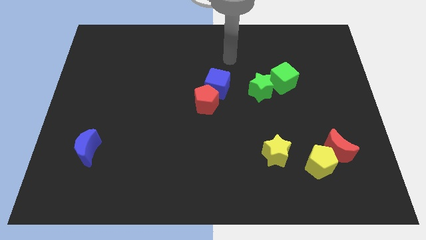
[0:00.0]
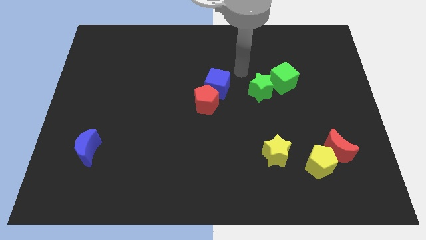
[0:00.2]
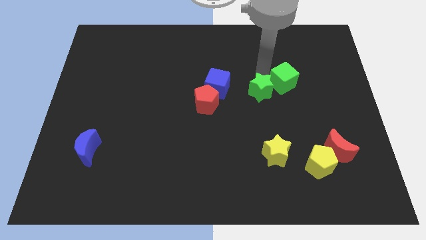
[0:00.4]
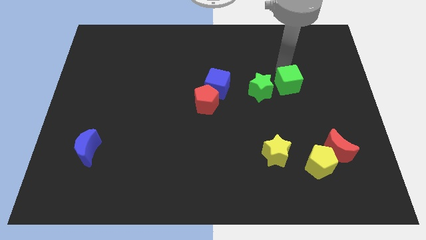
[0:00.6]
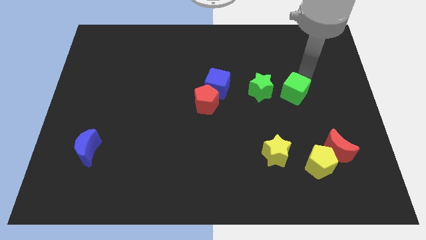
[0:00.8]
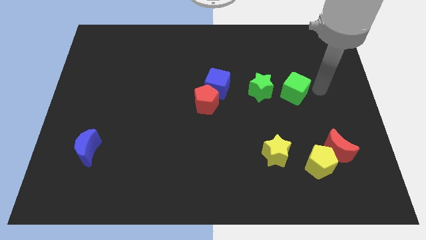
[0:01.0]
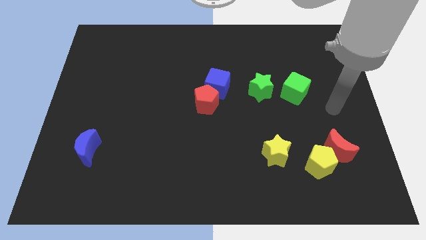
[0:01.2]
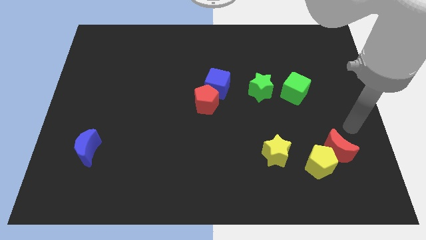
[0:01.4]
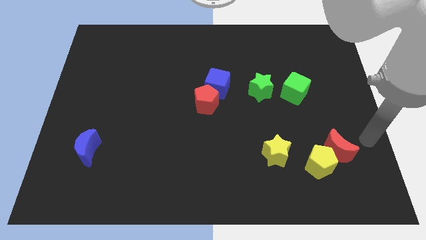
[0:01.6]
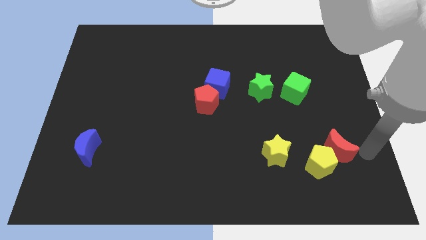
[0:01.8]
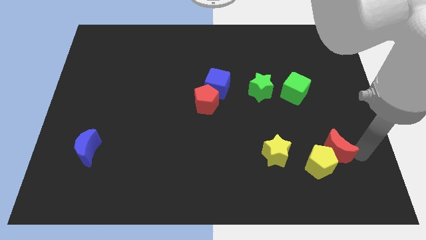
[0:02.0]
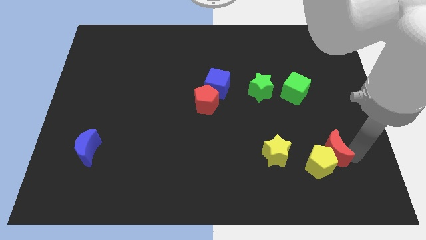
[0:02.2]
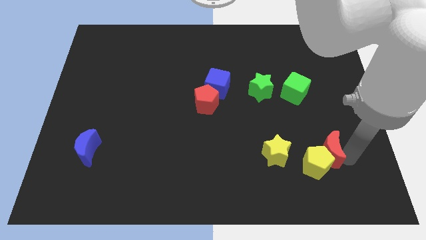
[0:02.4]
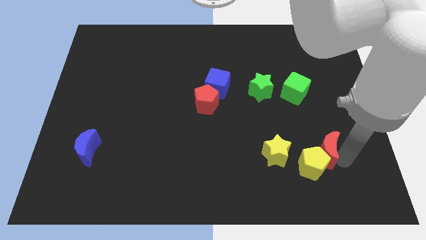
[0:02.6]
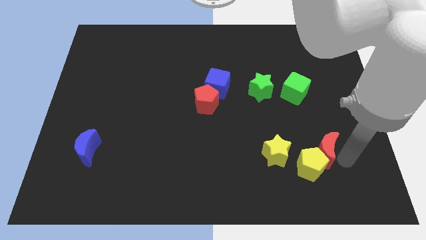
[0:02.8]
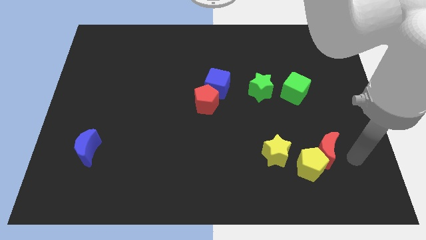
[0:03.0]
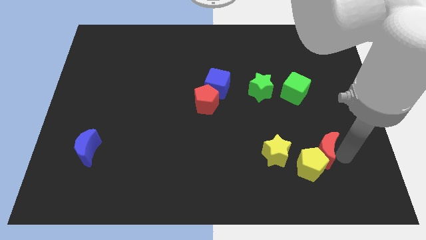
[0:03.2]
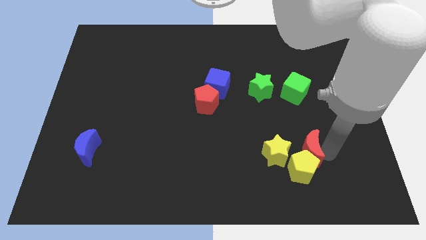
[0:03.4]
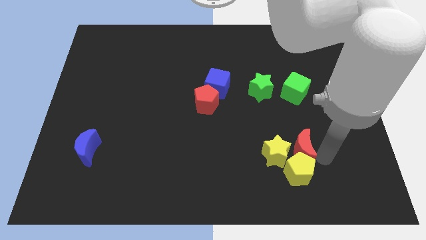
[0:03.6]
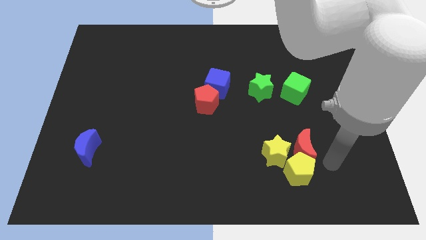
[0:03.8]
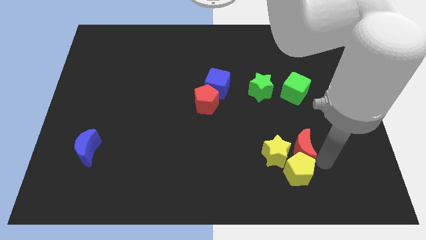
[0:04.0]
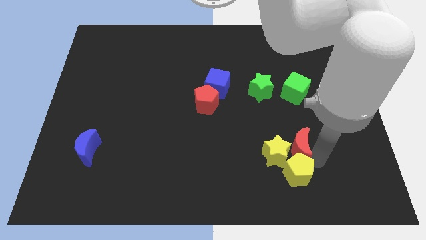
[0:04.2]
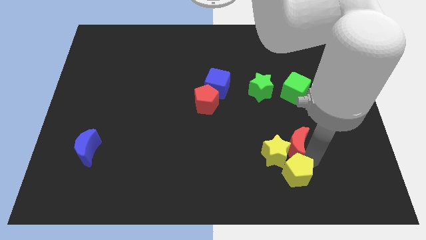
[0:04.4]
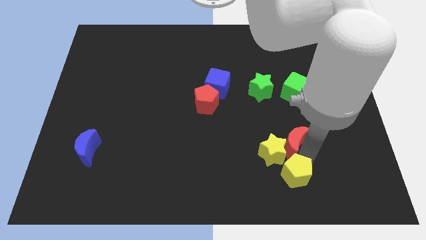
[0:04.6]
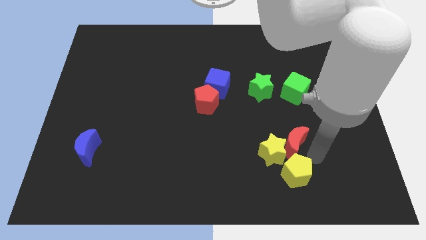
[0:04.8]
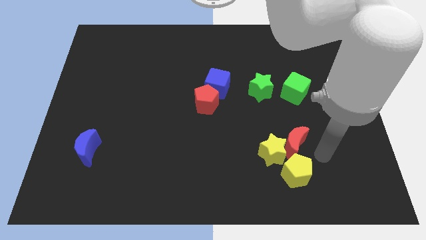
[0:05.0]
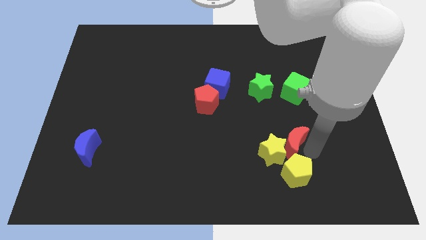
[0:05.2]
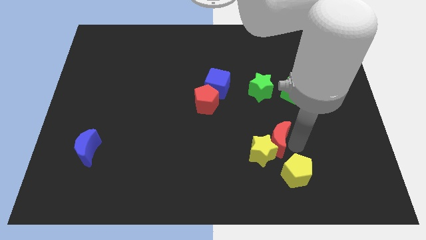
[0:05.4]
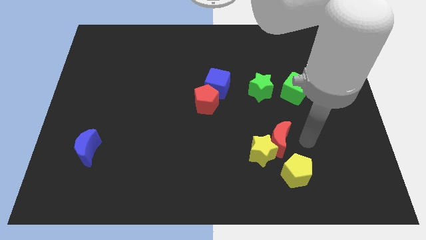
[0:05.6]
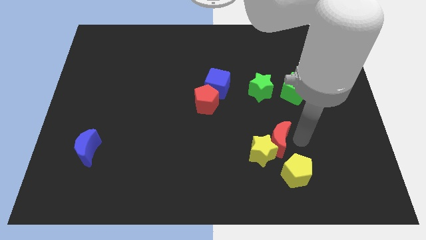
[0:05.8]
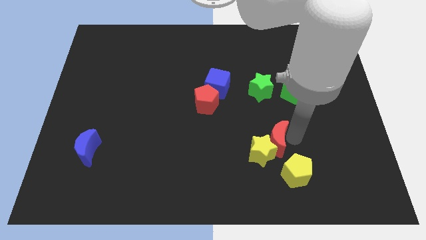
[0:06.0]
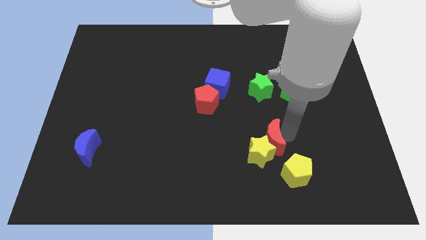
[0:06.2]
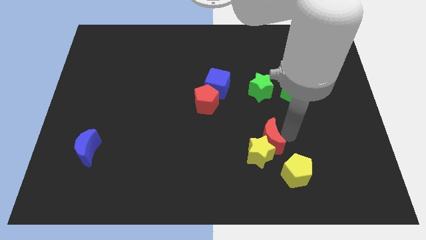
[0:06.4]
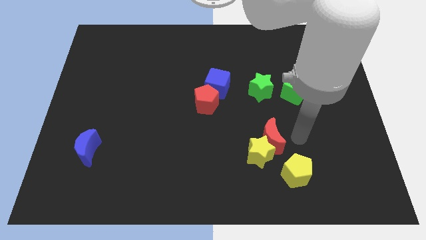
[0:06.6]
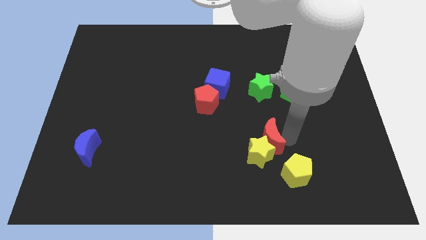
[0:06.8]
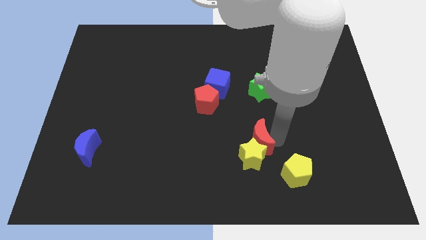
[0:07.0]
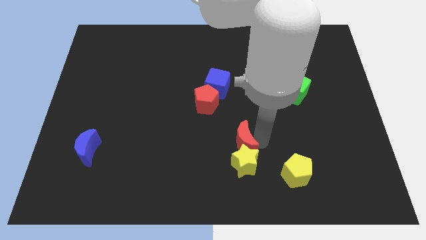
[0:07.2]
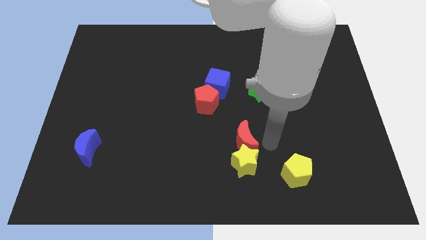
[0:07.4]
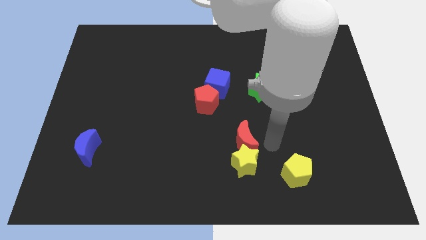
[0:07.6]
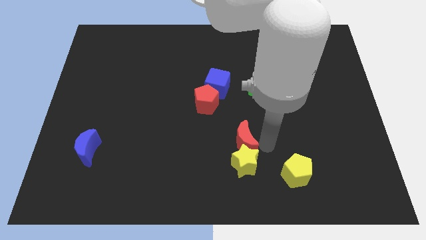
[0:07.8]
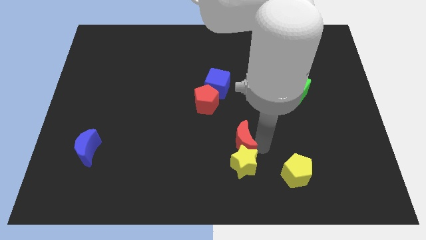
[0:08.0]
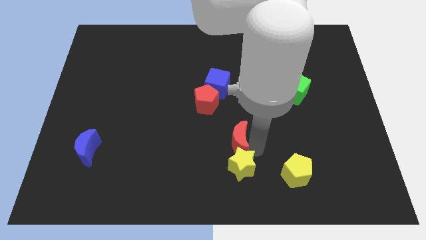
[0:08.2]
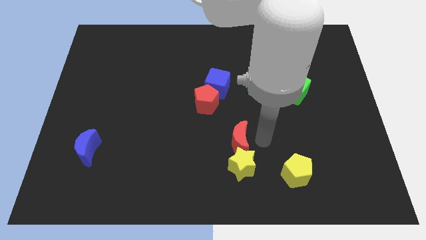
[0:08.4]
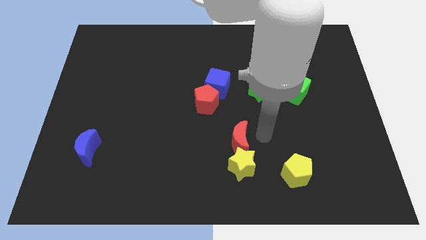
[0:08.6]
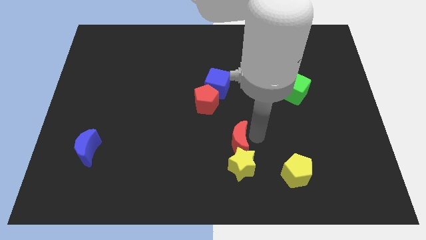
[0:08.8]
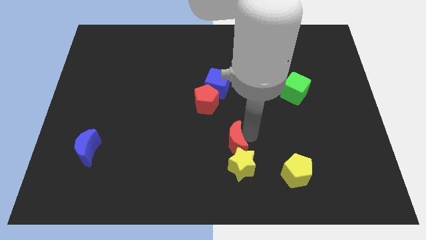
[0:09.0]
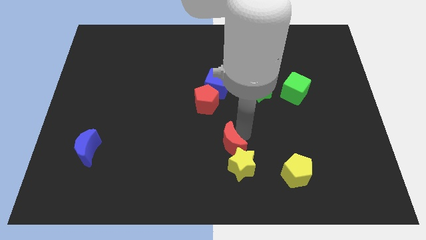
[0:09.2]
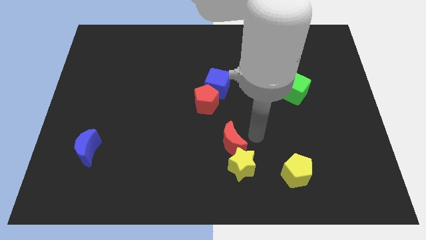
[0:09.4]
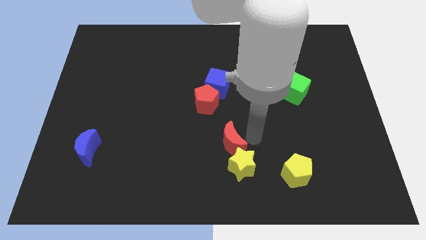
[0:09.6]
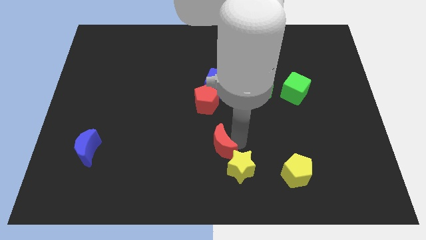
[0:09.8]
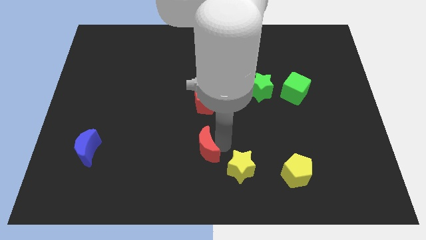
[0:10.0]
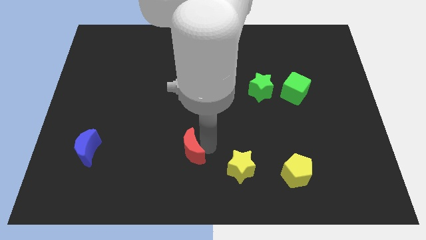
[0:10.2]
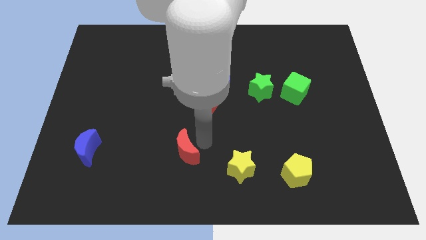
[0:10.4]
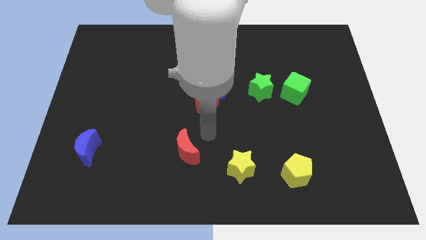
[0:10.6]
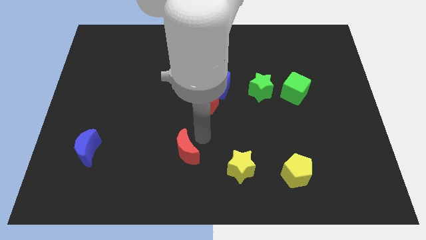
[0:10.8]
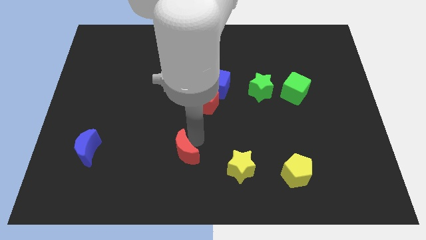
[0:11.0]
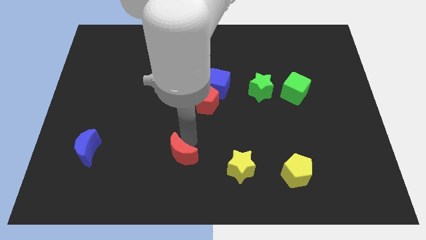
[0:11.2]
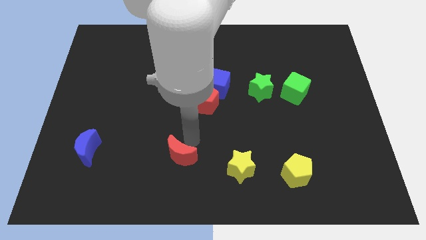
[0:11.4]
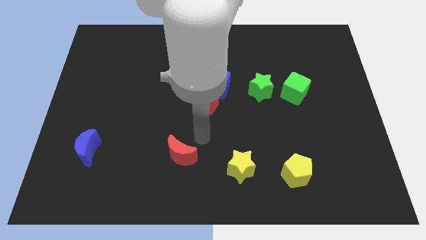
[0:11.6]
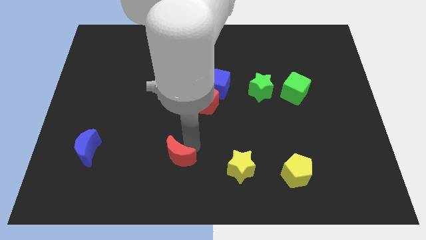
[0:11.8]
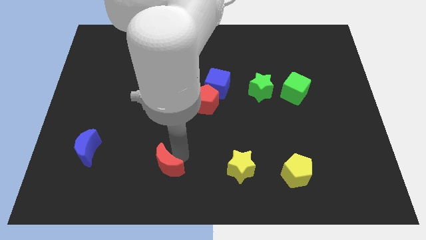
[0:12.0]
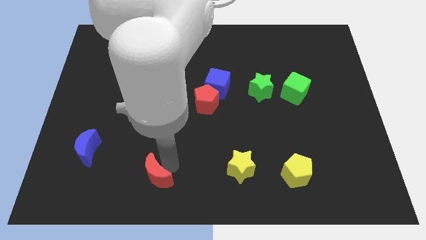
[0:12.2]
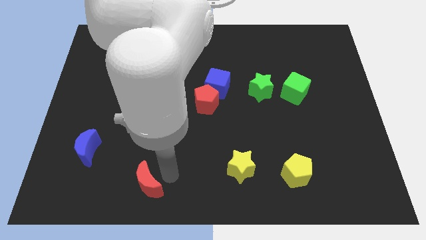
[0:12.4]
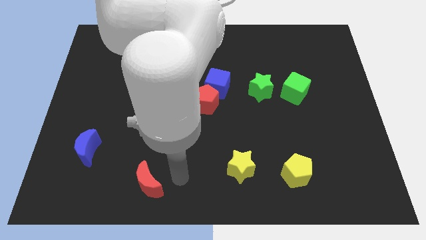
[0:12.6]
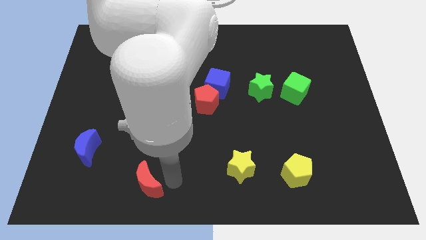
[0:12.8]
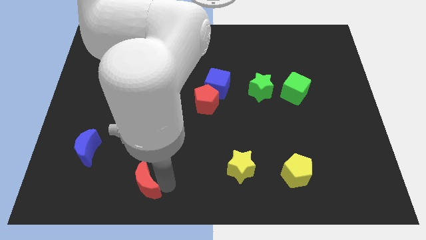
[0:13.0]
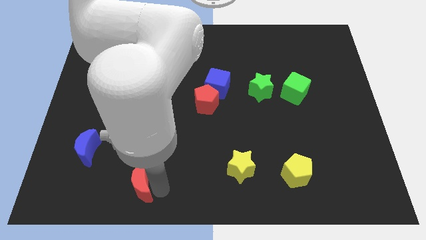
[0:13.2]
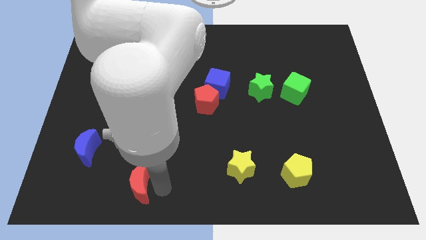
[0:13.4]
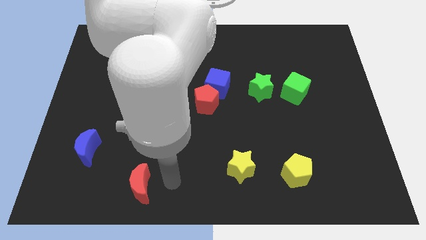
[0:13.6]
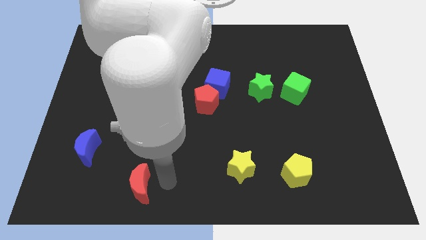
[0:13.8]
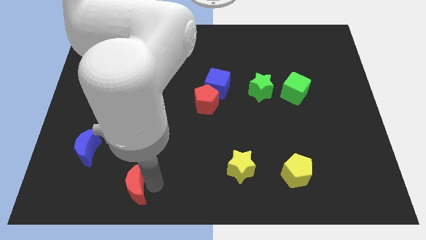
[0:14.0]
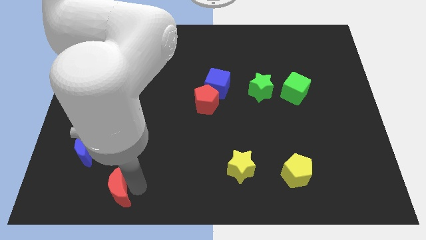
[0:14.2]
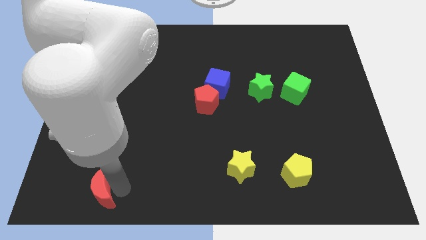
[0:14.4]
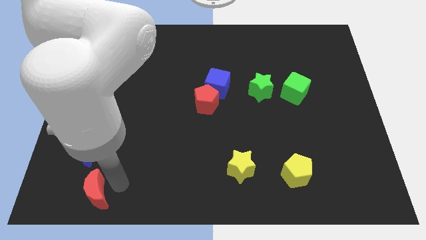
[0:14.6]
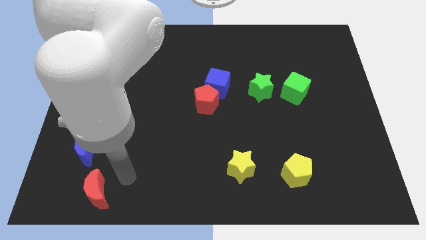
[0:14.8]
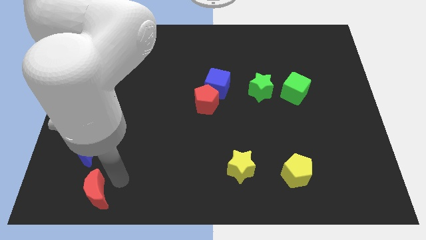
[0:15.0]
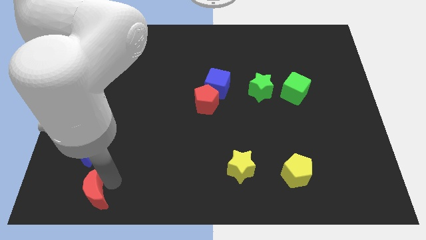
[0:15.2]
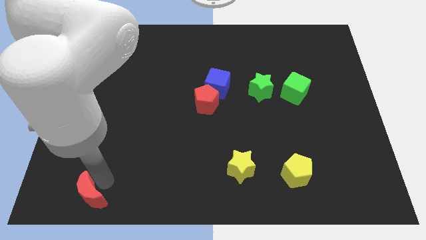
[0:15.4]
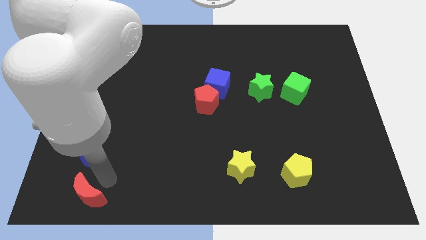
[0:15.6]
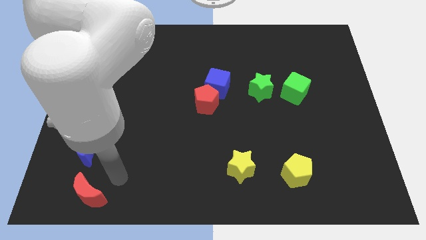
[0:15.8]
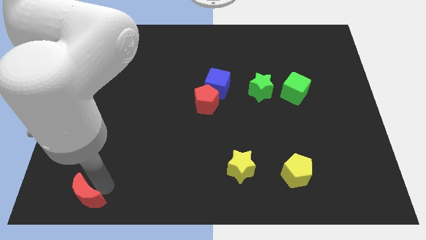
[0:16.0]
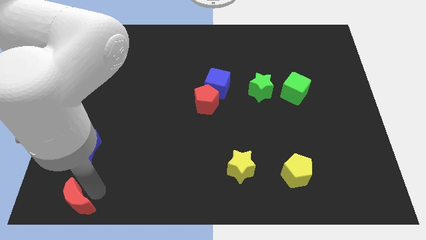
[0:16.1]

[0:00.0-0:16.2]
move the red moon to the bottom left corner
